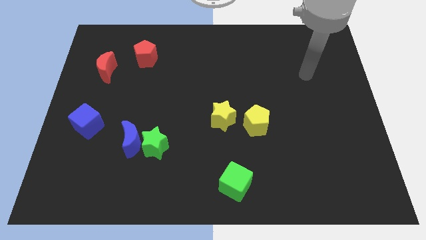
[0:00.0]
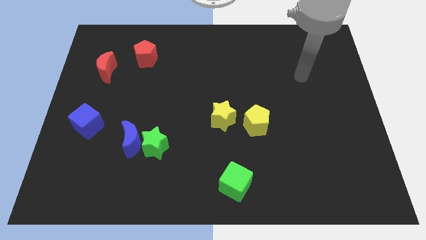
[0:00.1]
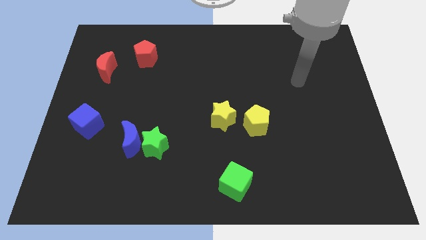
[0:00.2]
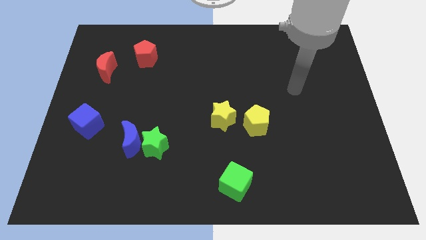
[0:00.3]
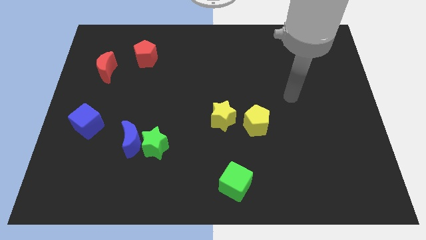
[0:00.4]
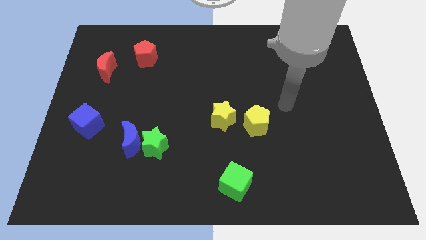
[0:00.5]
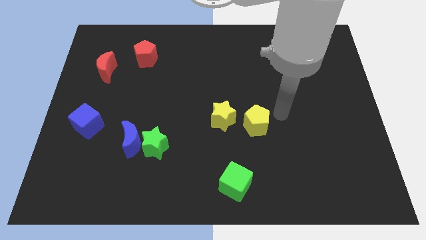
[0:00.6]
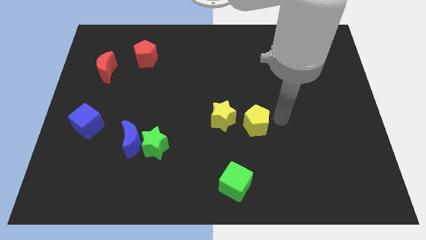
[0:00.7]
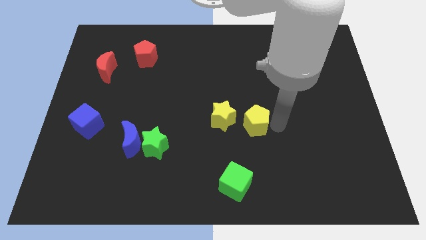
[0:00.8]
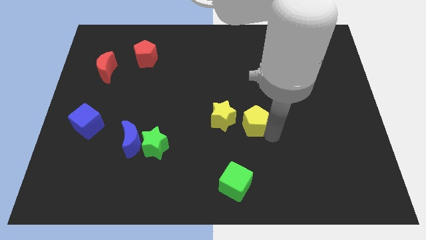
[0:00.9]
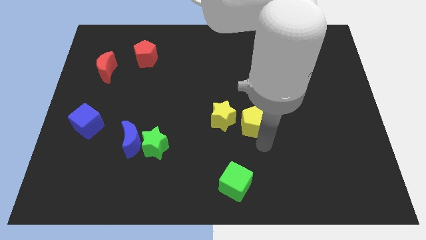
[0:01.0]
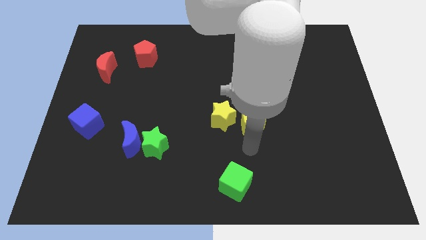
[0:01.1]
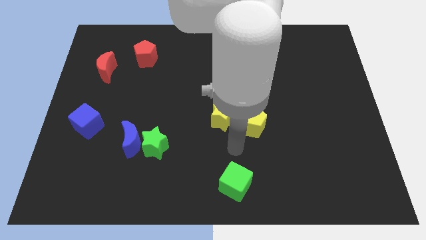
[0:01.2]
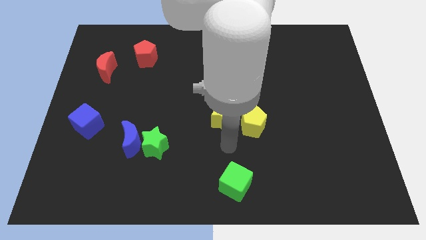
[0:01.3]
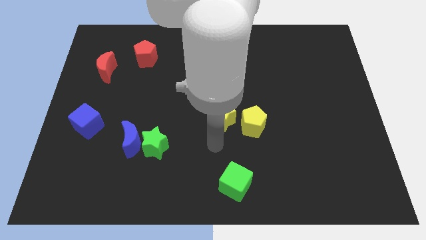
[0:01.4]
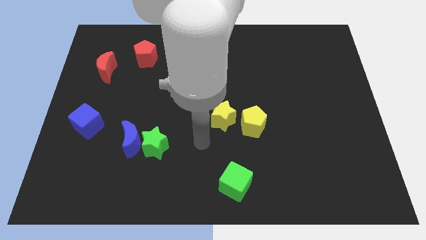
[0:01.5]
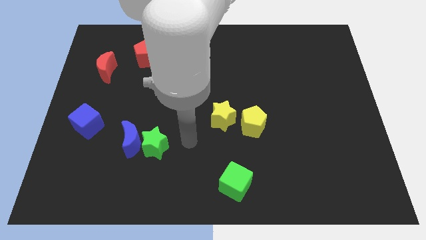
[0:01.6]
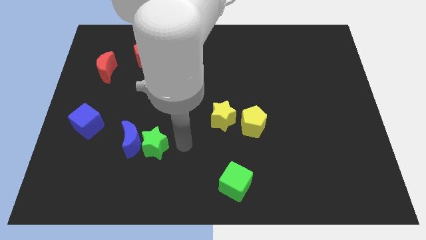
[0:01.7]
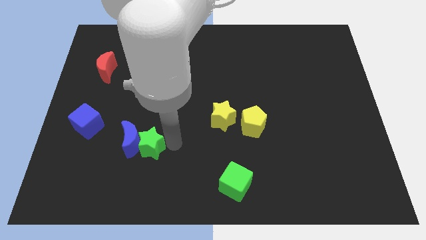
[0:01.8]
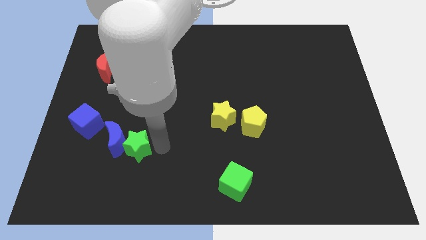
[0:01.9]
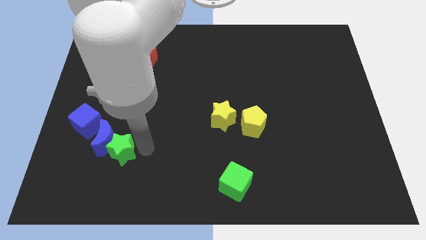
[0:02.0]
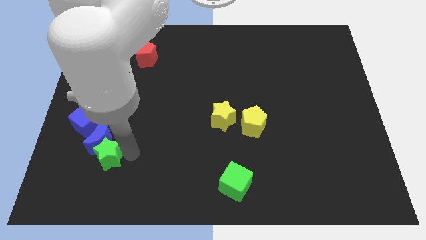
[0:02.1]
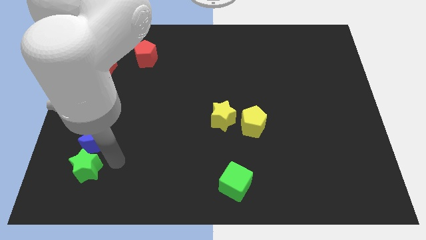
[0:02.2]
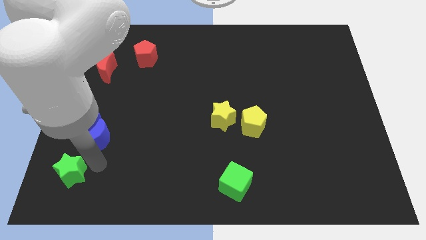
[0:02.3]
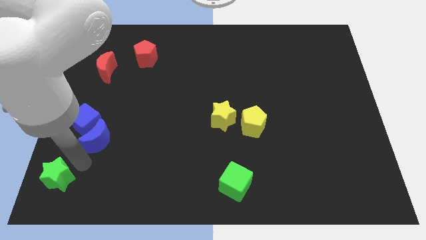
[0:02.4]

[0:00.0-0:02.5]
separate the blue moon from the green star

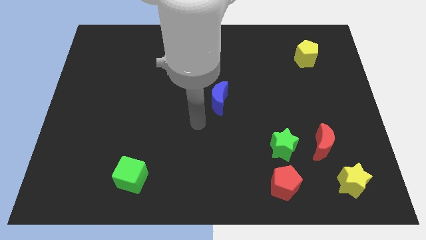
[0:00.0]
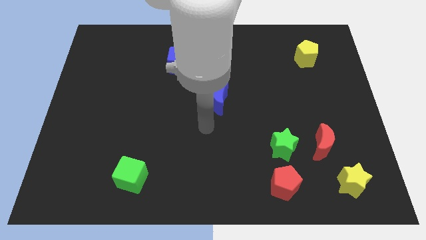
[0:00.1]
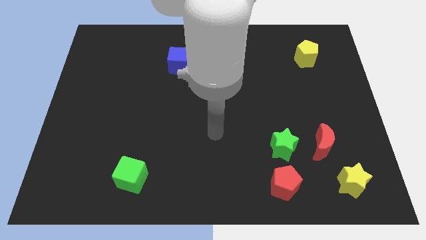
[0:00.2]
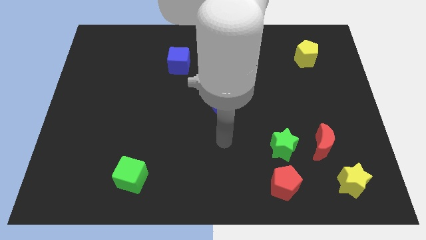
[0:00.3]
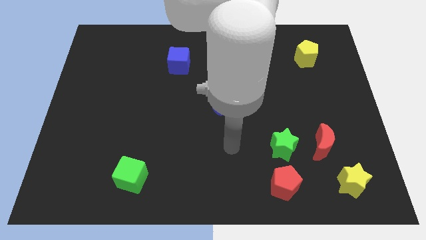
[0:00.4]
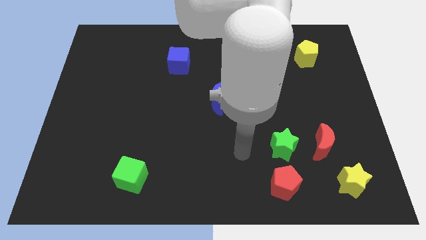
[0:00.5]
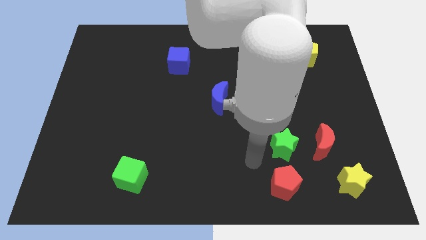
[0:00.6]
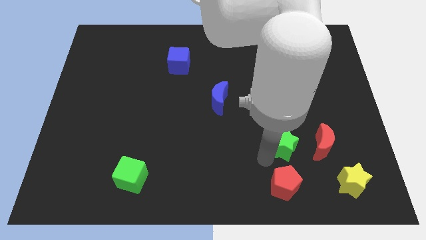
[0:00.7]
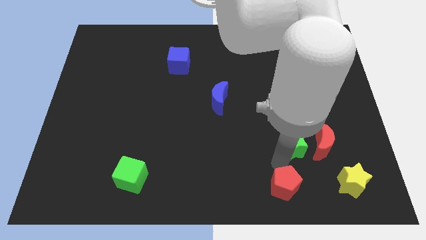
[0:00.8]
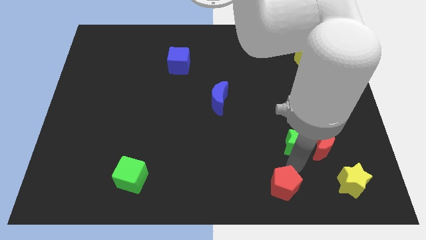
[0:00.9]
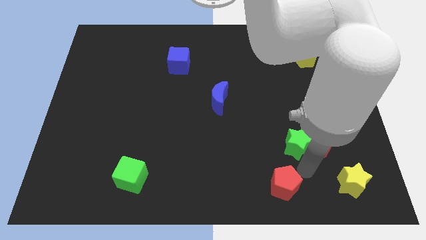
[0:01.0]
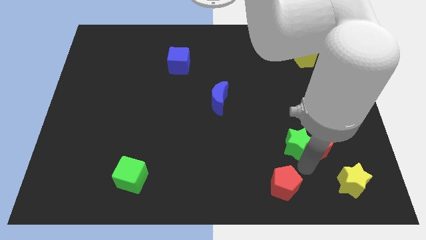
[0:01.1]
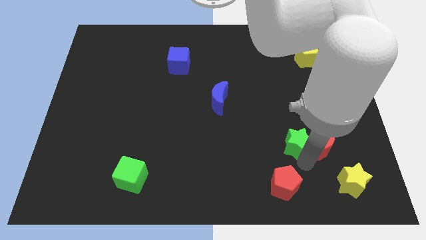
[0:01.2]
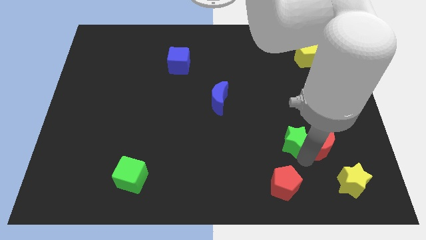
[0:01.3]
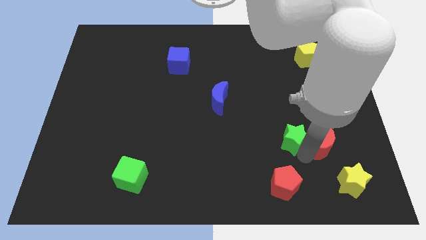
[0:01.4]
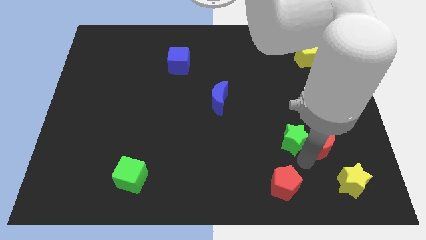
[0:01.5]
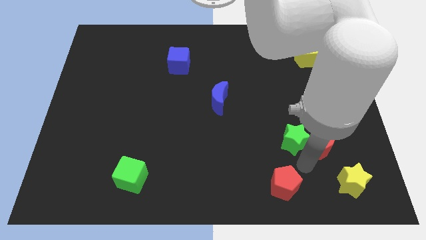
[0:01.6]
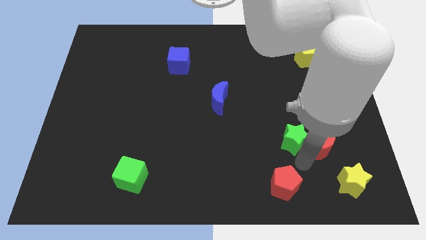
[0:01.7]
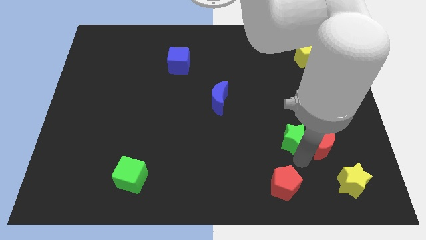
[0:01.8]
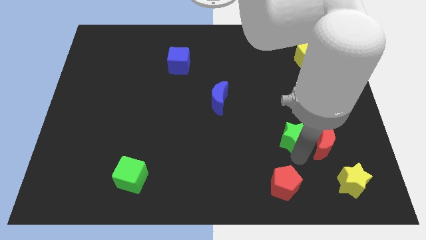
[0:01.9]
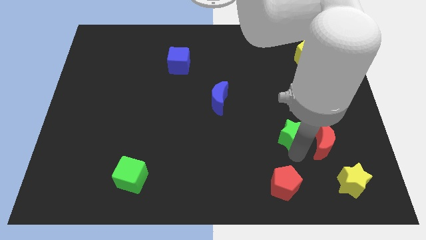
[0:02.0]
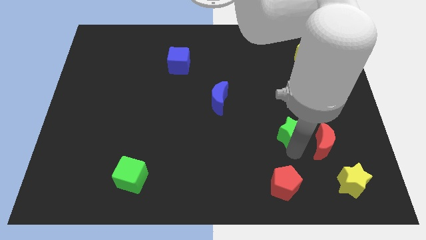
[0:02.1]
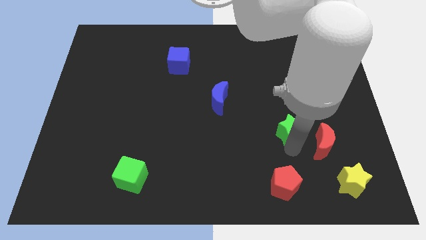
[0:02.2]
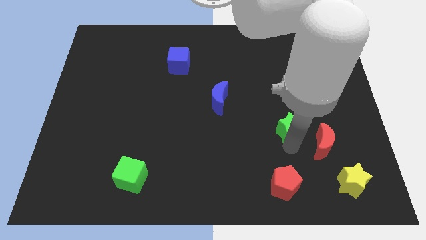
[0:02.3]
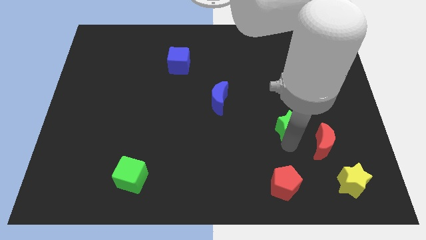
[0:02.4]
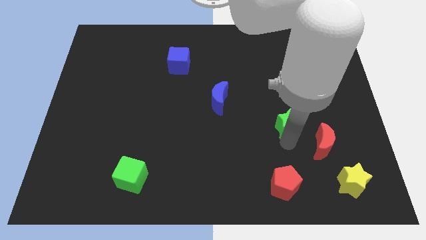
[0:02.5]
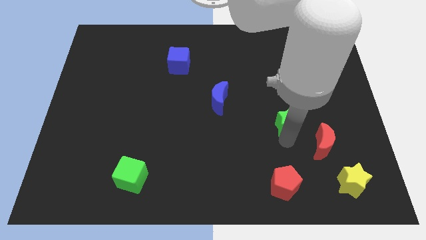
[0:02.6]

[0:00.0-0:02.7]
move the green star away from the red moon and red pentagon

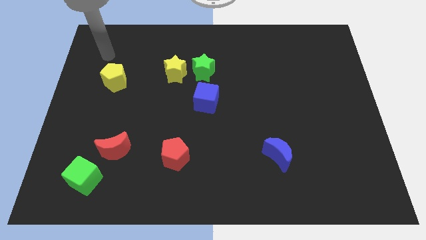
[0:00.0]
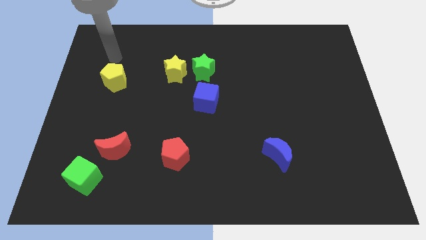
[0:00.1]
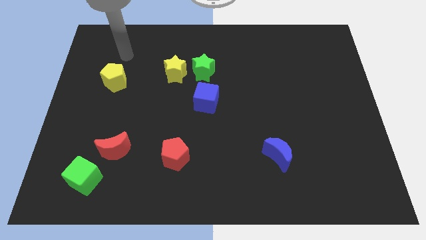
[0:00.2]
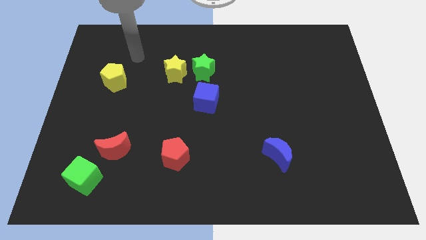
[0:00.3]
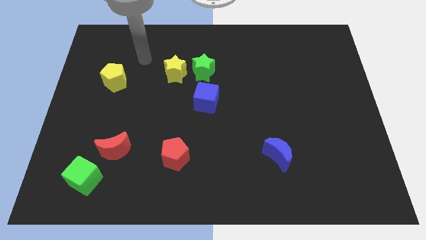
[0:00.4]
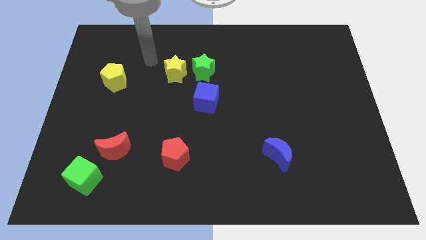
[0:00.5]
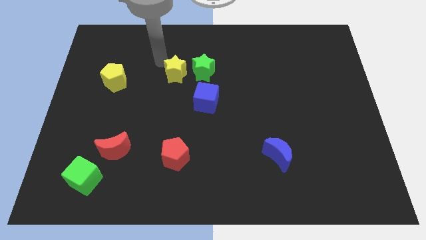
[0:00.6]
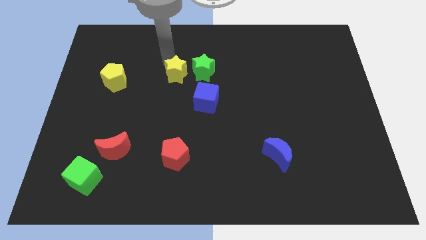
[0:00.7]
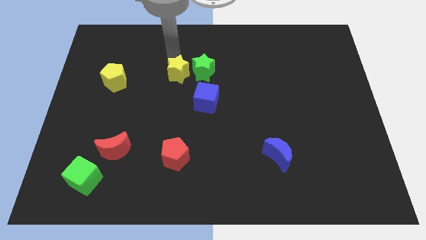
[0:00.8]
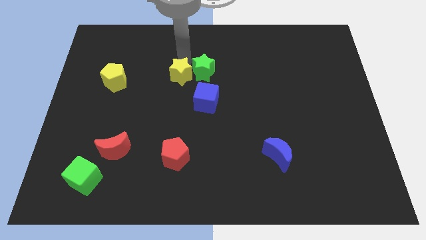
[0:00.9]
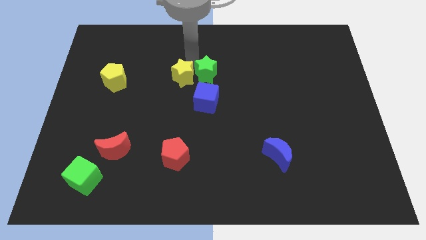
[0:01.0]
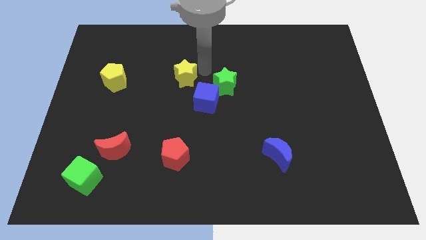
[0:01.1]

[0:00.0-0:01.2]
move the yellow star away from the green star

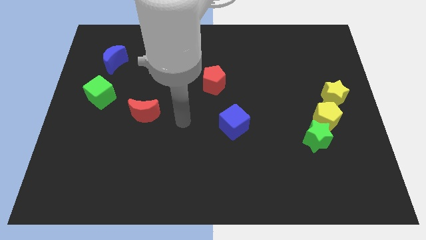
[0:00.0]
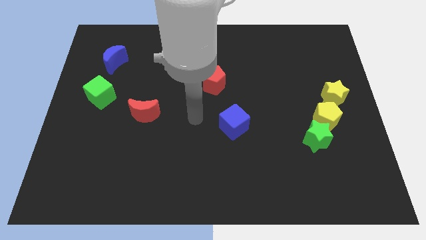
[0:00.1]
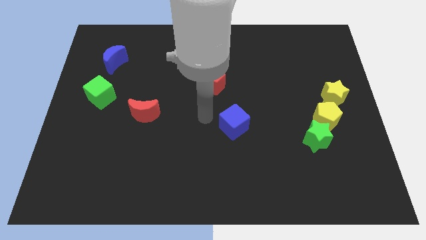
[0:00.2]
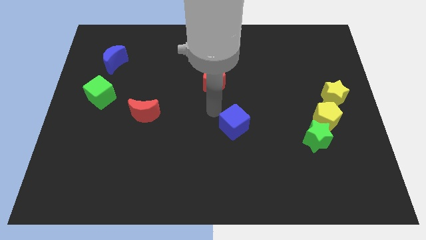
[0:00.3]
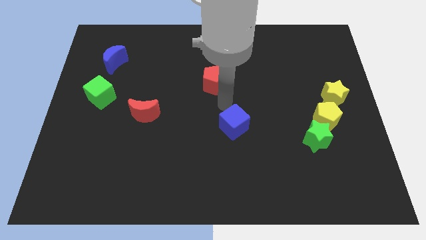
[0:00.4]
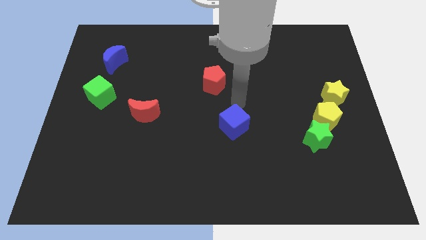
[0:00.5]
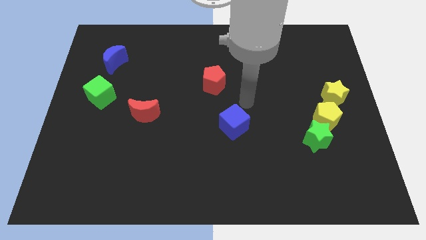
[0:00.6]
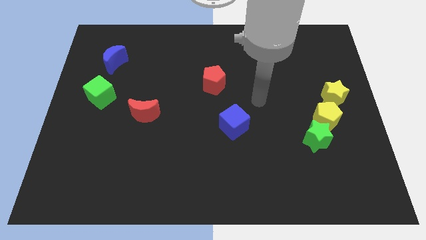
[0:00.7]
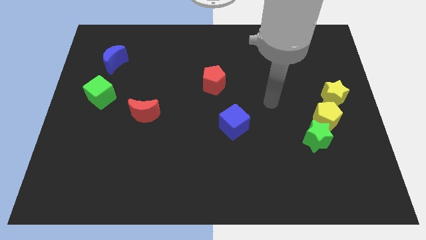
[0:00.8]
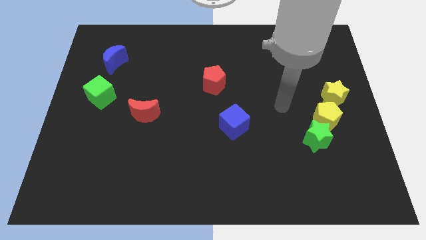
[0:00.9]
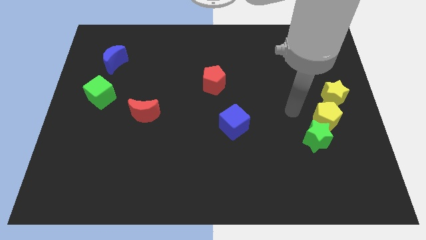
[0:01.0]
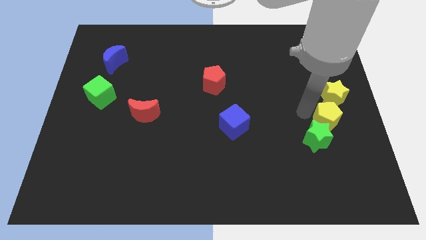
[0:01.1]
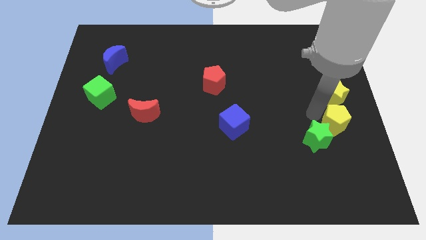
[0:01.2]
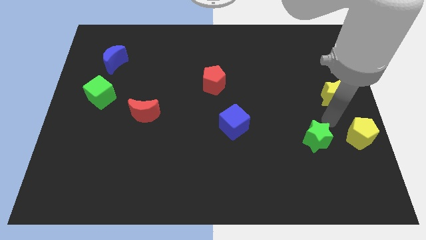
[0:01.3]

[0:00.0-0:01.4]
pull the green star apart from the yellow pentagon

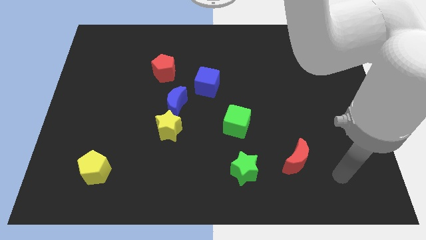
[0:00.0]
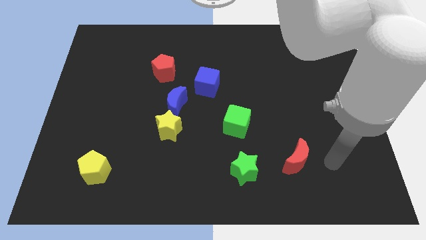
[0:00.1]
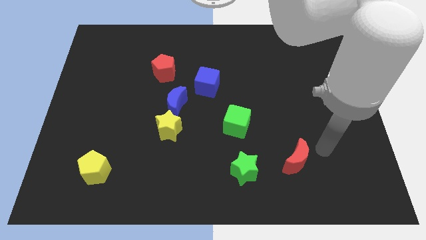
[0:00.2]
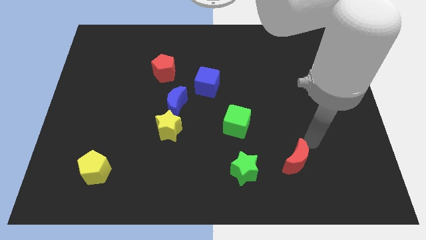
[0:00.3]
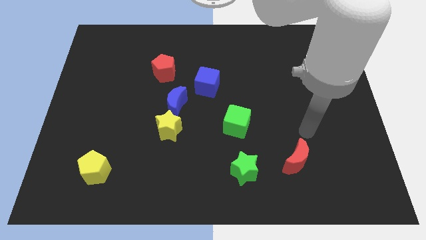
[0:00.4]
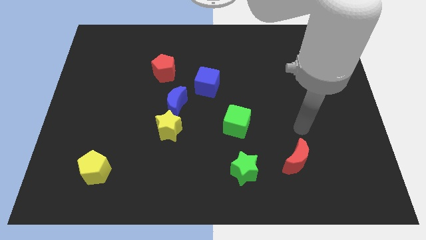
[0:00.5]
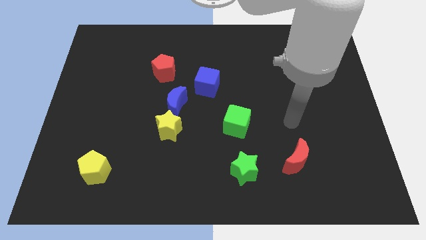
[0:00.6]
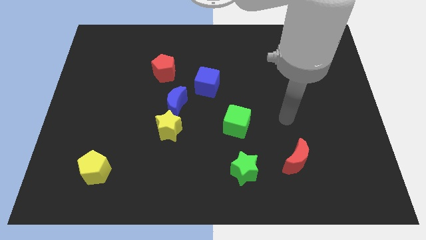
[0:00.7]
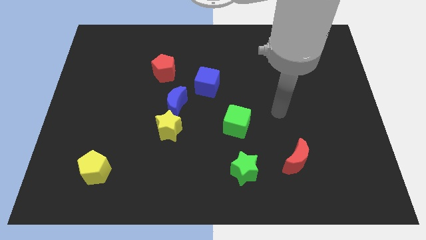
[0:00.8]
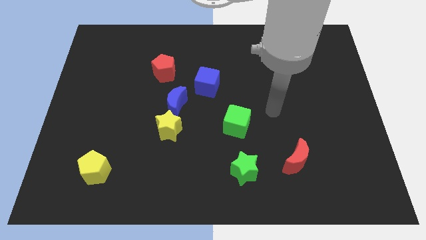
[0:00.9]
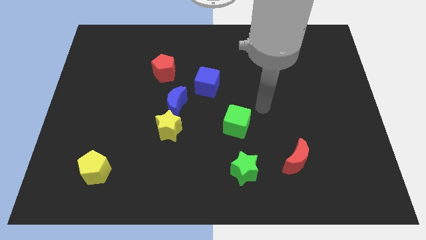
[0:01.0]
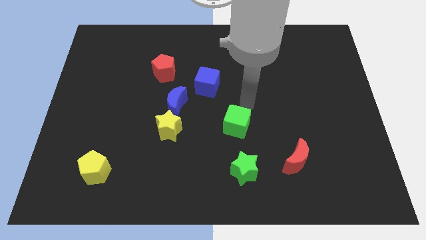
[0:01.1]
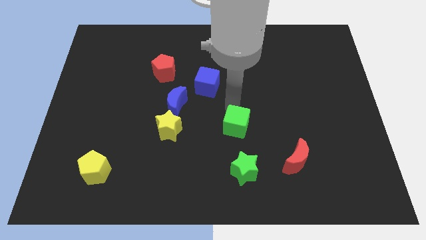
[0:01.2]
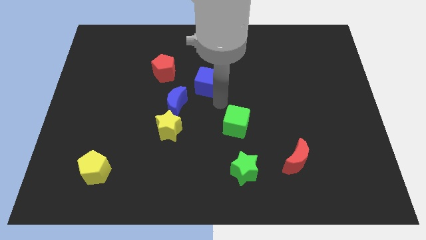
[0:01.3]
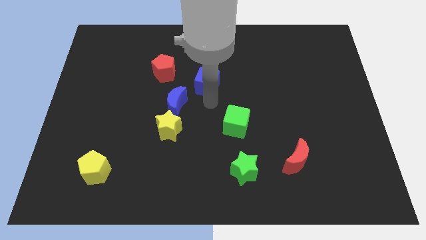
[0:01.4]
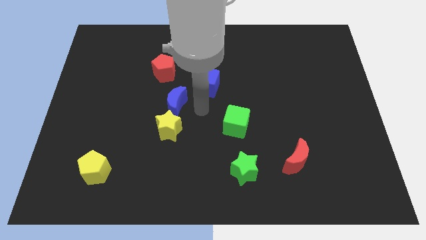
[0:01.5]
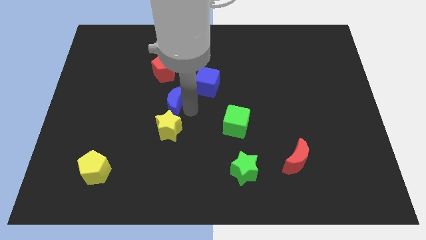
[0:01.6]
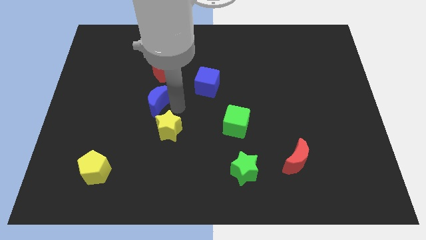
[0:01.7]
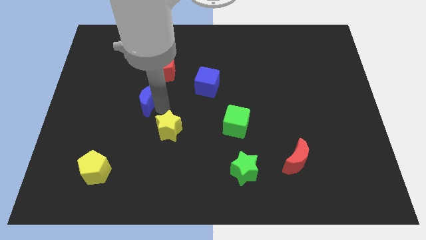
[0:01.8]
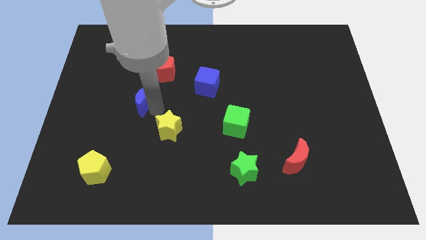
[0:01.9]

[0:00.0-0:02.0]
move the yellow star away from the blue moon
